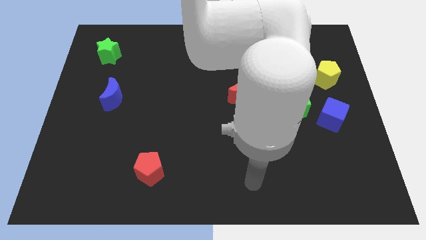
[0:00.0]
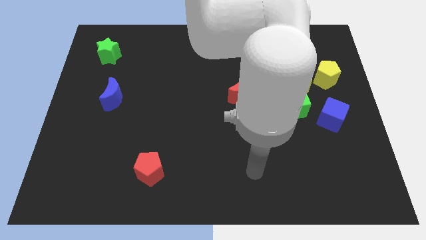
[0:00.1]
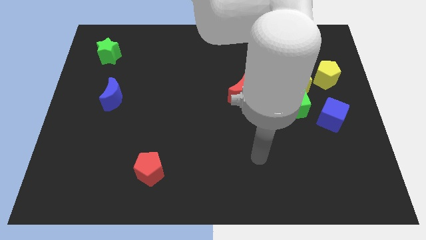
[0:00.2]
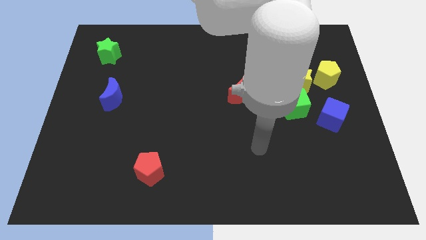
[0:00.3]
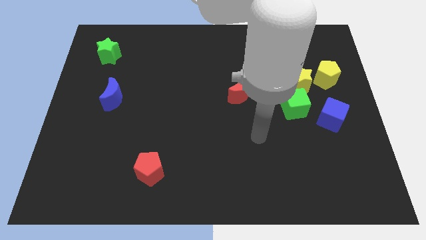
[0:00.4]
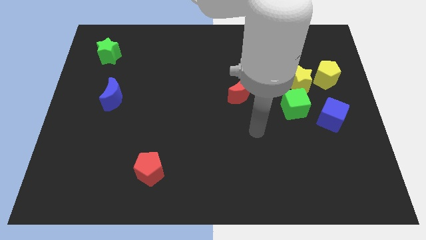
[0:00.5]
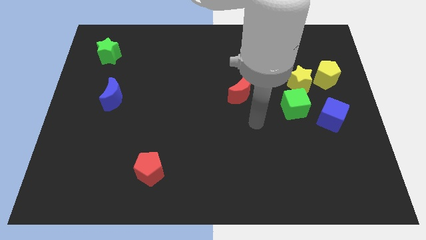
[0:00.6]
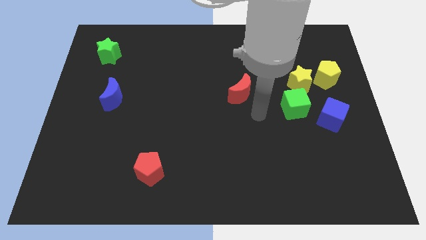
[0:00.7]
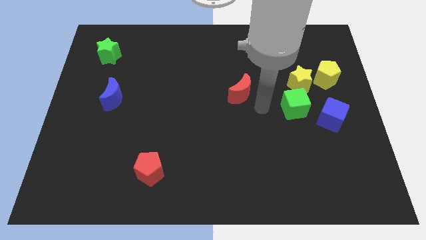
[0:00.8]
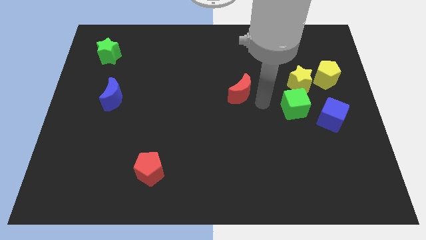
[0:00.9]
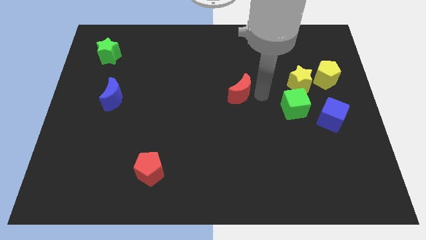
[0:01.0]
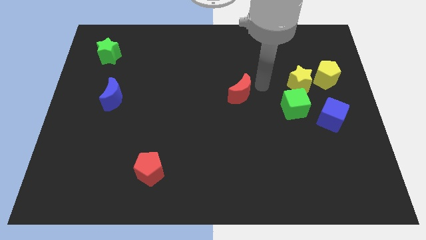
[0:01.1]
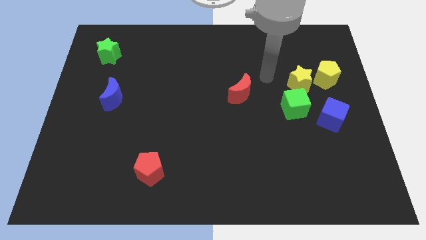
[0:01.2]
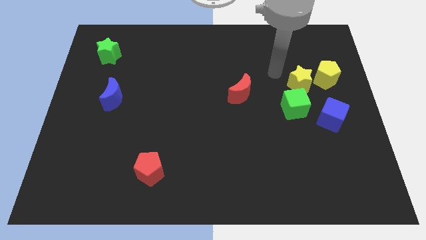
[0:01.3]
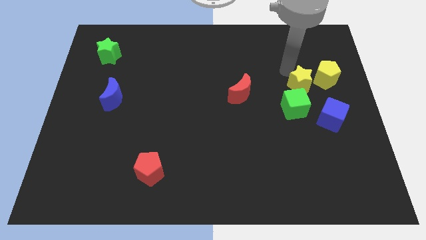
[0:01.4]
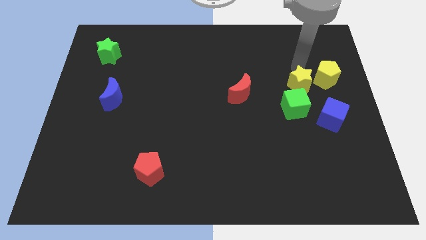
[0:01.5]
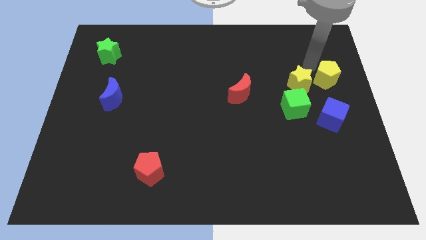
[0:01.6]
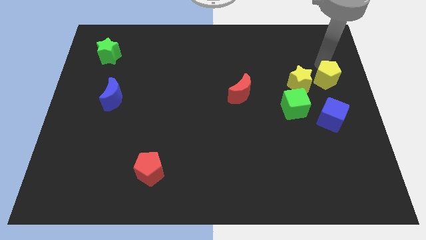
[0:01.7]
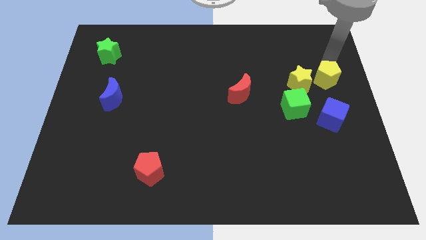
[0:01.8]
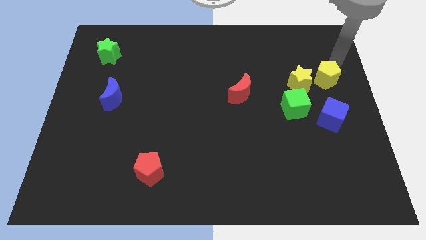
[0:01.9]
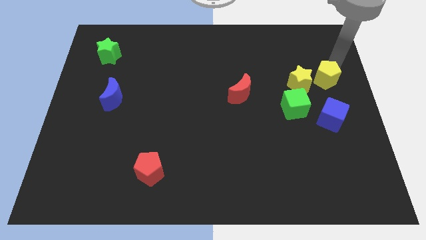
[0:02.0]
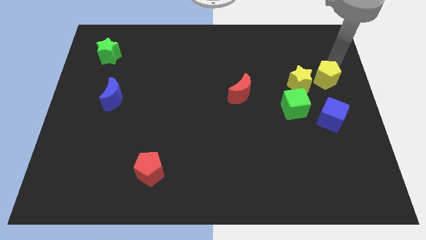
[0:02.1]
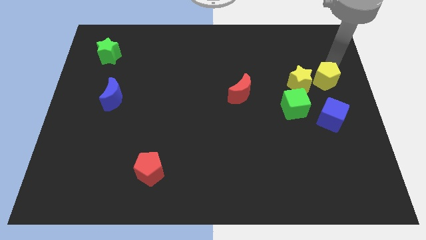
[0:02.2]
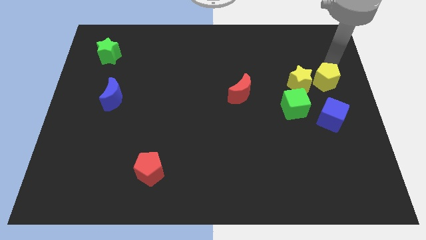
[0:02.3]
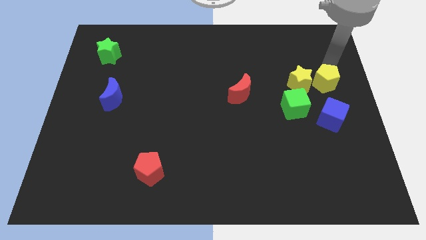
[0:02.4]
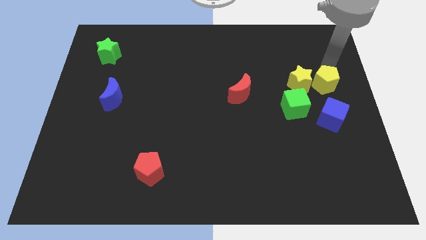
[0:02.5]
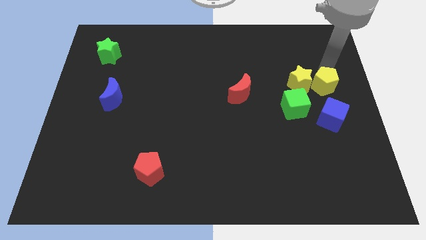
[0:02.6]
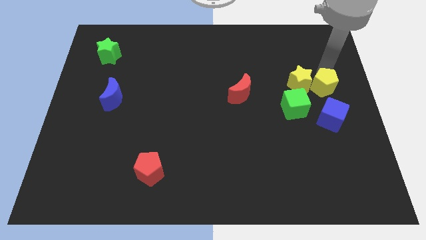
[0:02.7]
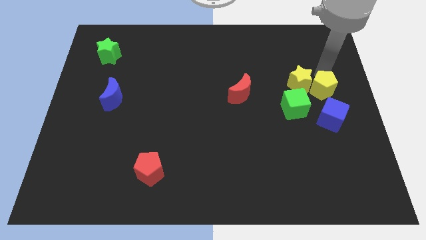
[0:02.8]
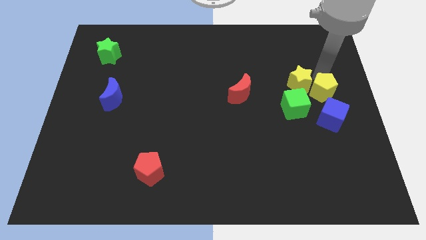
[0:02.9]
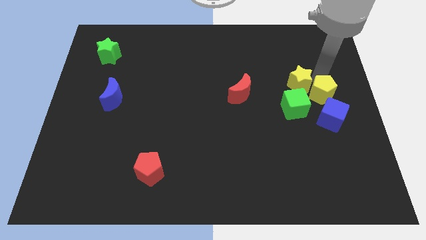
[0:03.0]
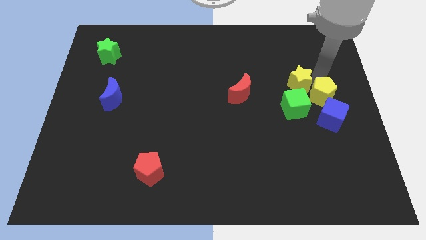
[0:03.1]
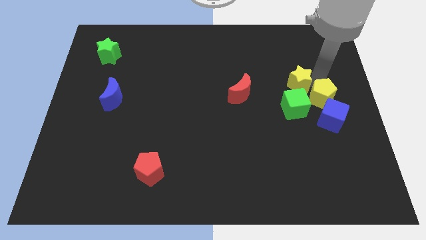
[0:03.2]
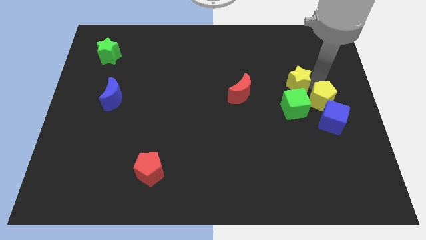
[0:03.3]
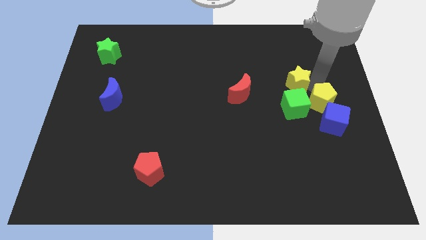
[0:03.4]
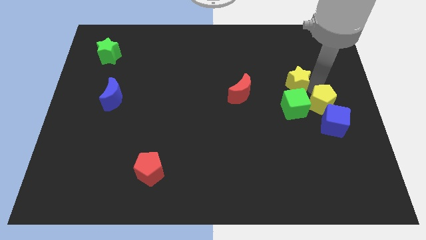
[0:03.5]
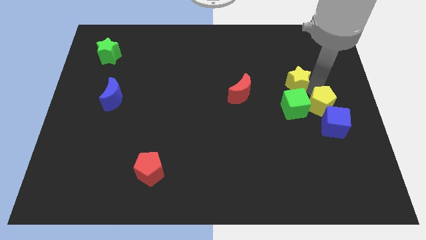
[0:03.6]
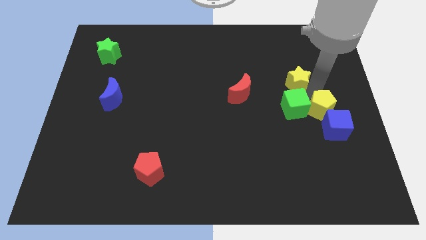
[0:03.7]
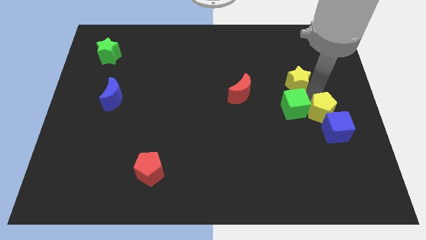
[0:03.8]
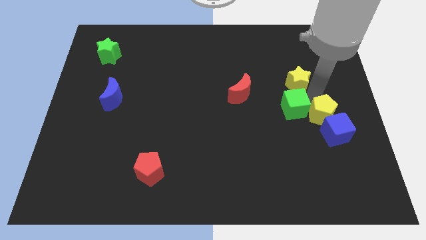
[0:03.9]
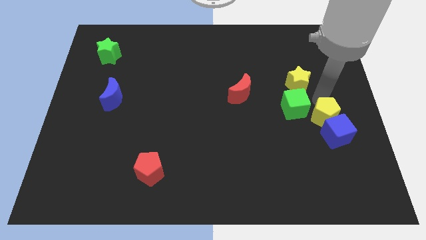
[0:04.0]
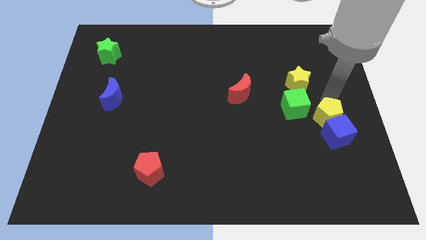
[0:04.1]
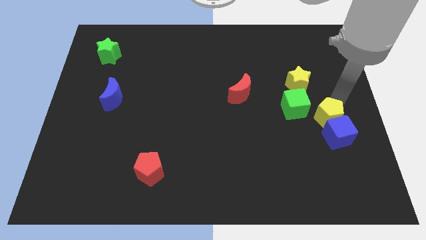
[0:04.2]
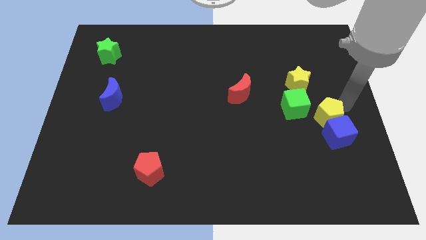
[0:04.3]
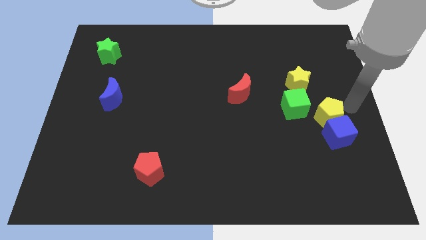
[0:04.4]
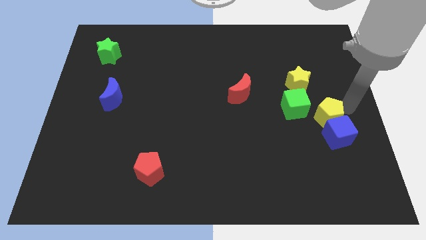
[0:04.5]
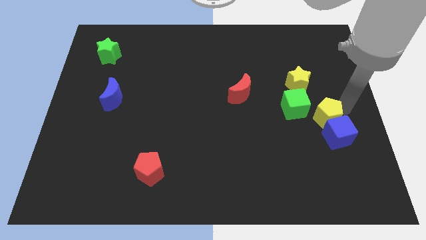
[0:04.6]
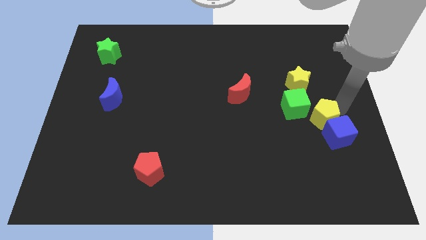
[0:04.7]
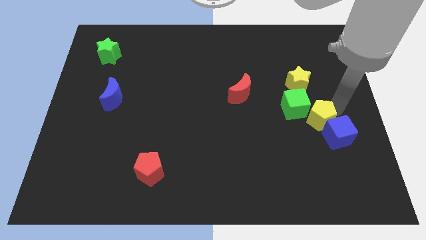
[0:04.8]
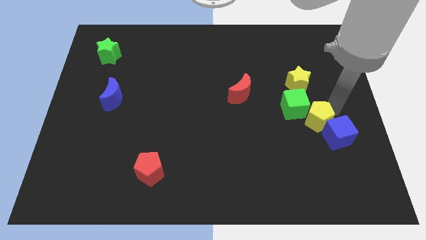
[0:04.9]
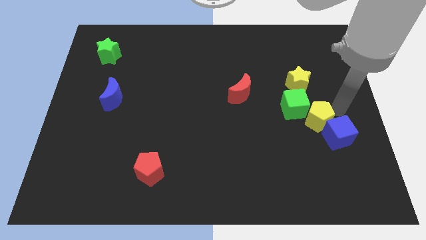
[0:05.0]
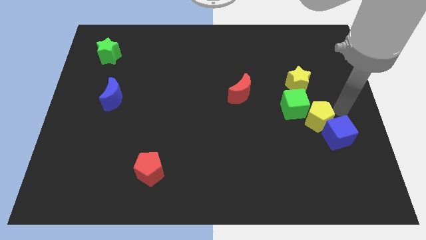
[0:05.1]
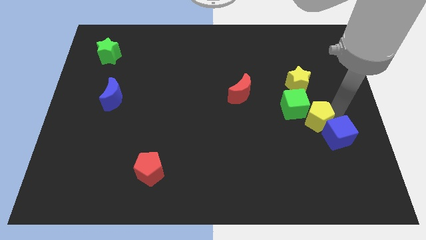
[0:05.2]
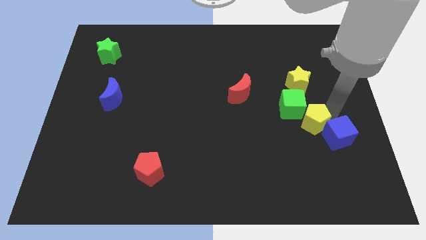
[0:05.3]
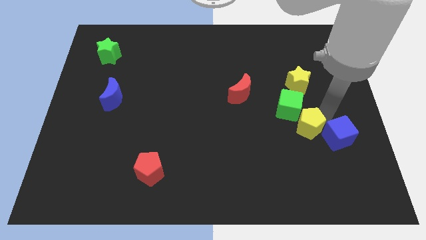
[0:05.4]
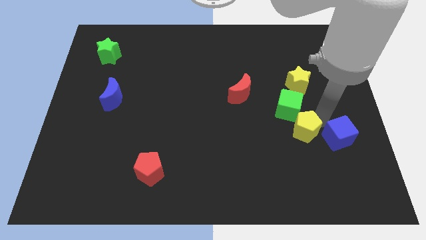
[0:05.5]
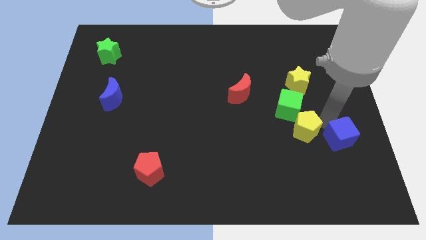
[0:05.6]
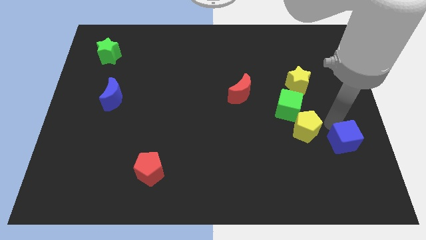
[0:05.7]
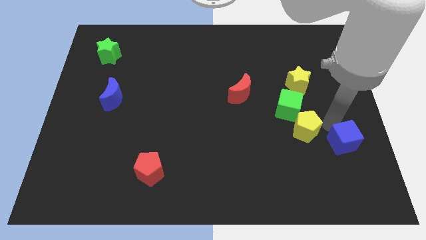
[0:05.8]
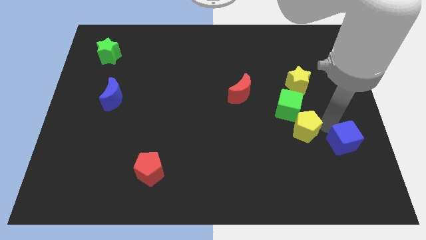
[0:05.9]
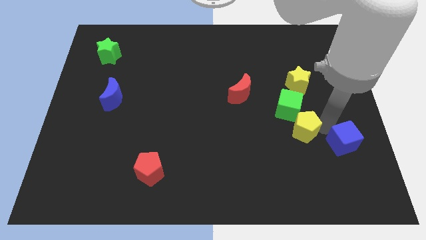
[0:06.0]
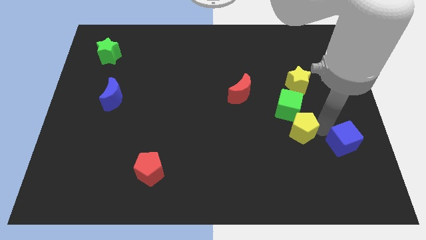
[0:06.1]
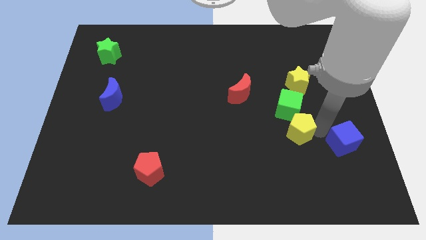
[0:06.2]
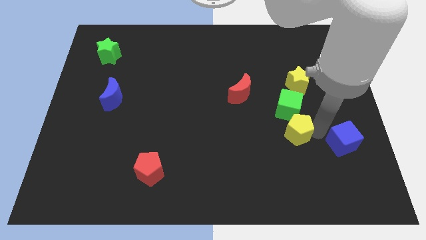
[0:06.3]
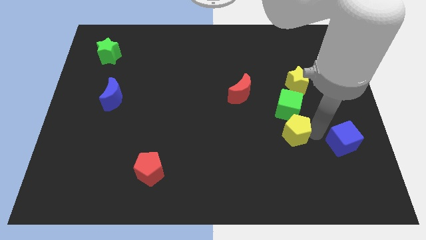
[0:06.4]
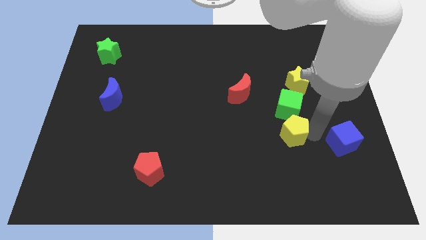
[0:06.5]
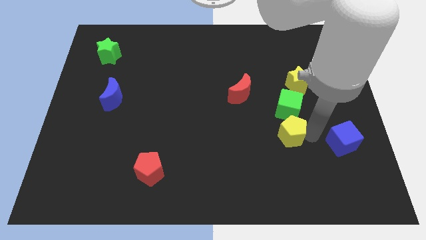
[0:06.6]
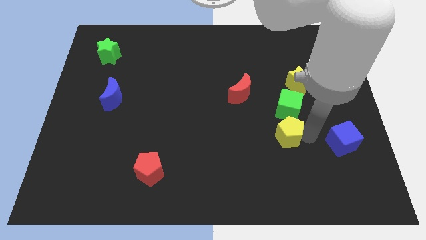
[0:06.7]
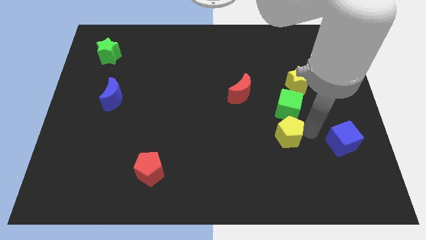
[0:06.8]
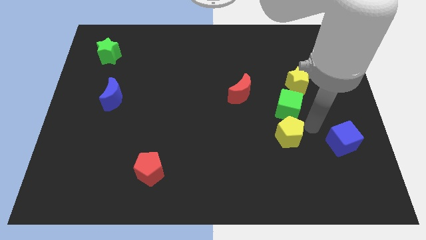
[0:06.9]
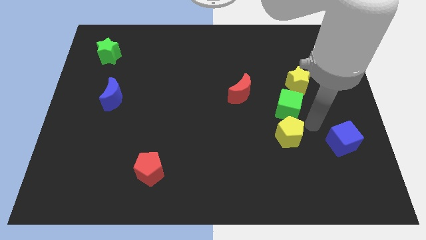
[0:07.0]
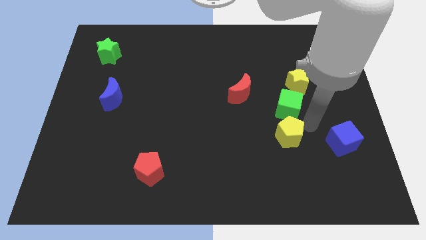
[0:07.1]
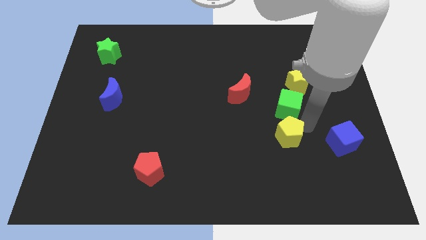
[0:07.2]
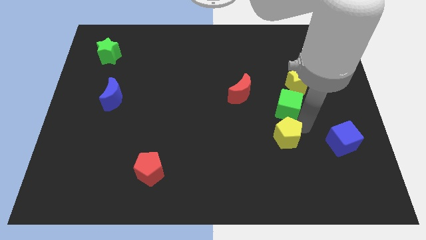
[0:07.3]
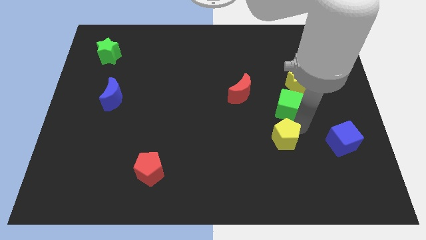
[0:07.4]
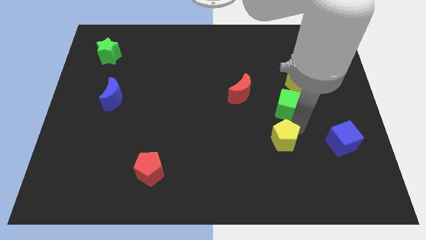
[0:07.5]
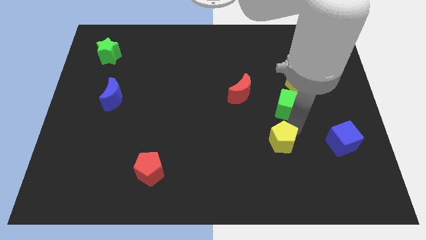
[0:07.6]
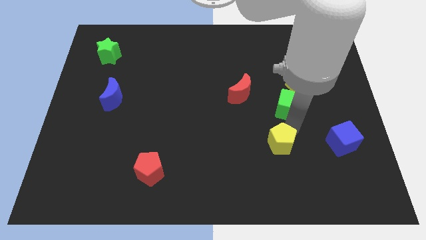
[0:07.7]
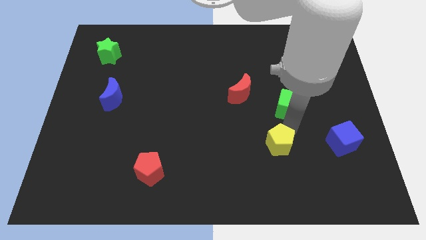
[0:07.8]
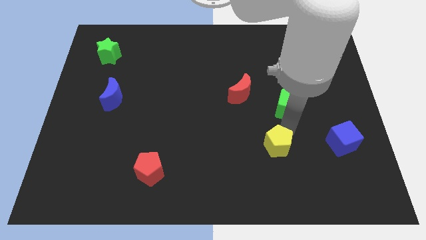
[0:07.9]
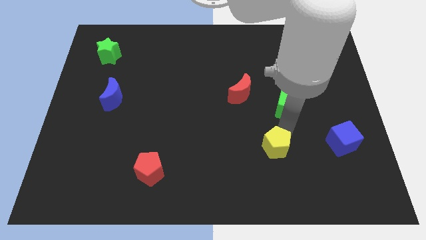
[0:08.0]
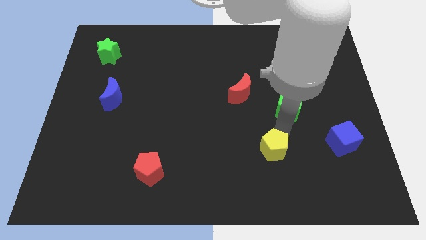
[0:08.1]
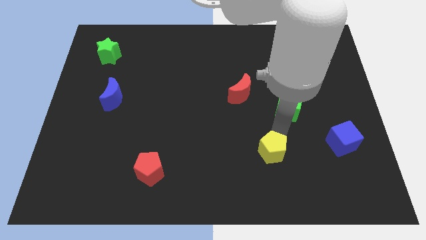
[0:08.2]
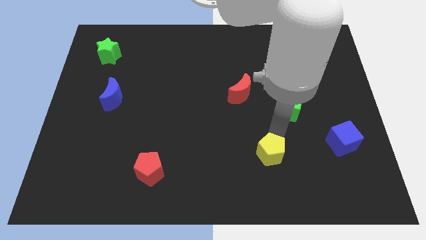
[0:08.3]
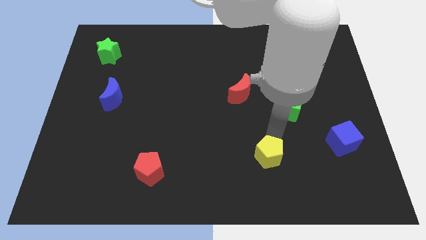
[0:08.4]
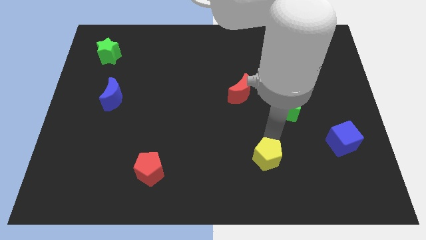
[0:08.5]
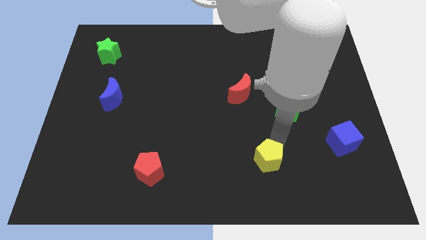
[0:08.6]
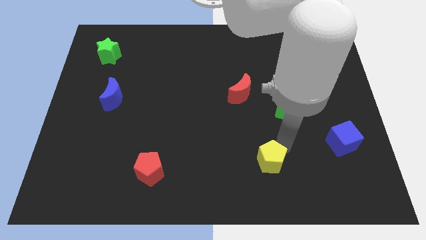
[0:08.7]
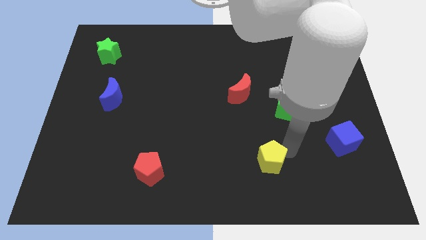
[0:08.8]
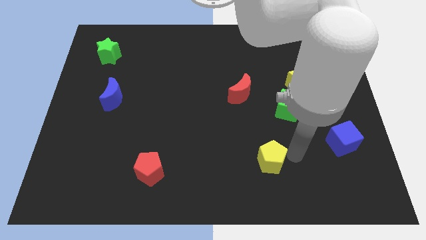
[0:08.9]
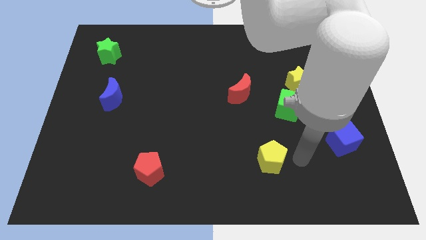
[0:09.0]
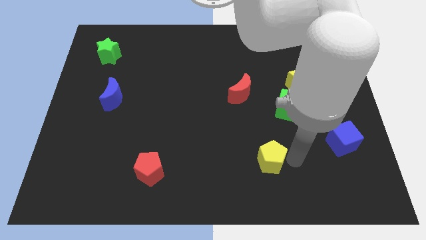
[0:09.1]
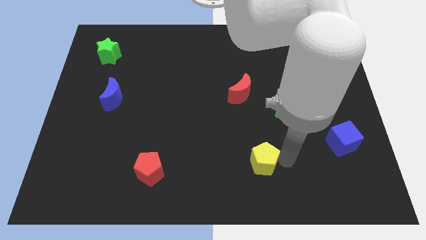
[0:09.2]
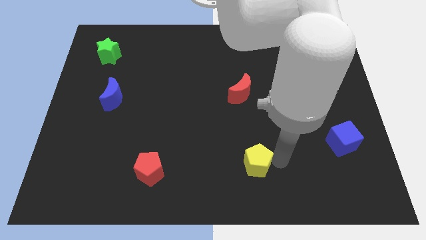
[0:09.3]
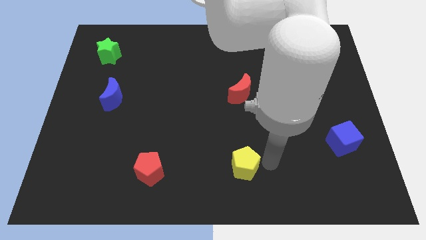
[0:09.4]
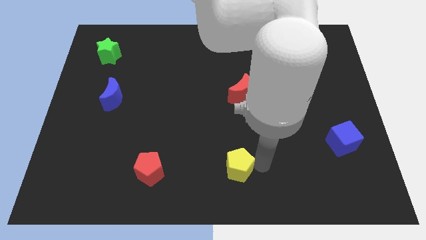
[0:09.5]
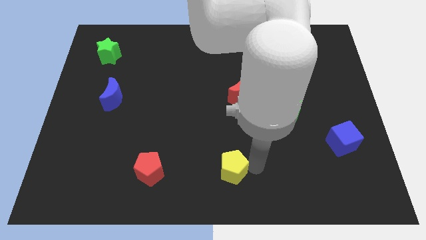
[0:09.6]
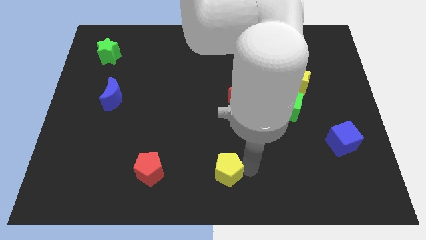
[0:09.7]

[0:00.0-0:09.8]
push the yellow pentagon right of the red pentagon
